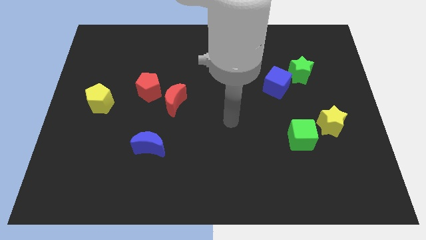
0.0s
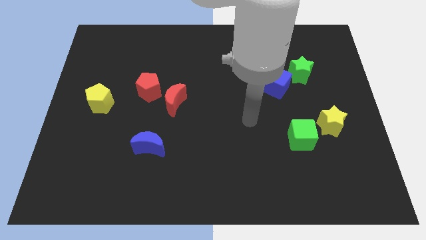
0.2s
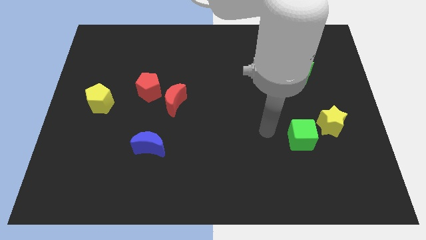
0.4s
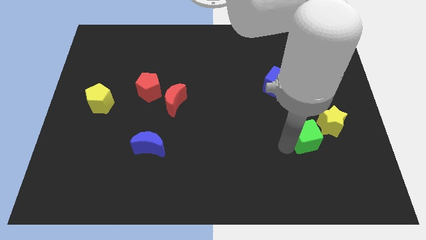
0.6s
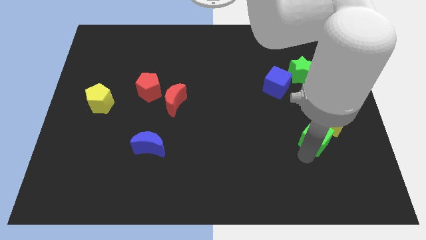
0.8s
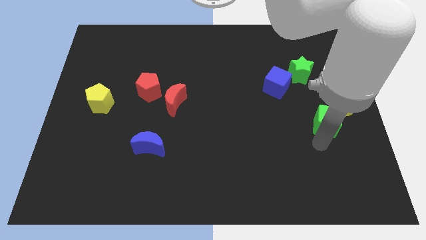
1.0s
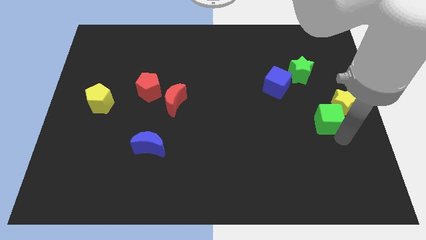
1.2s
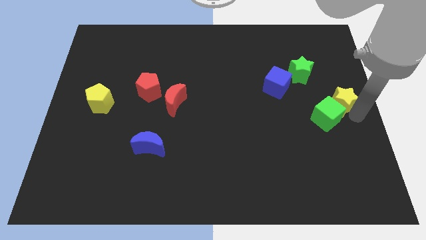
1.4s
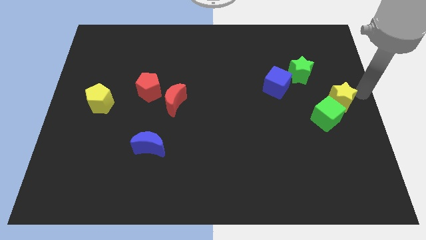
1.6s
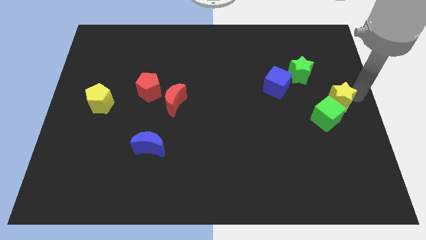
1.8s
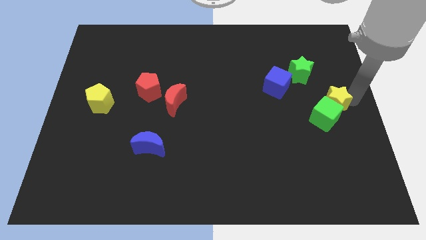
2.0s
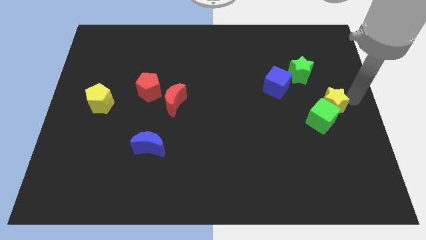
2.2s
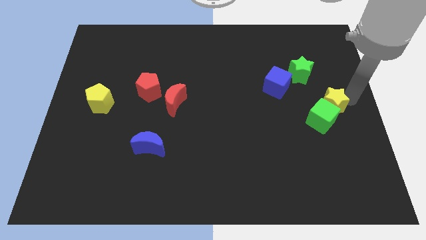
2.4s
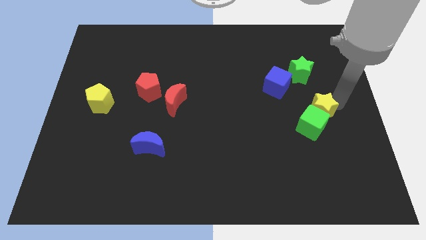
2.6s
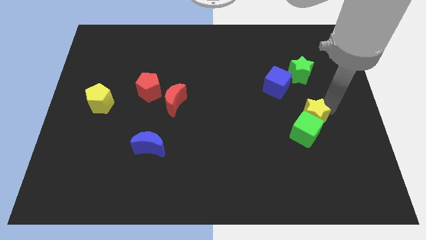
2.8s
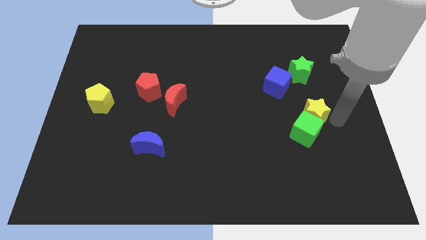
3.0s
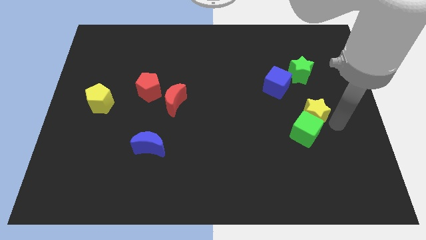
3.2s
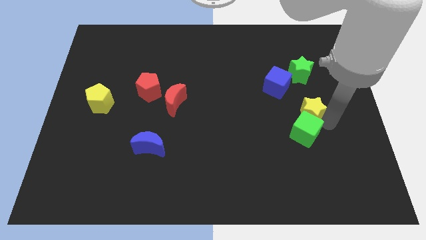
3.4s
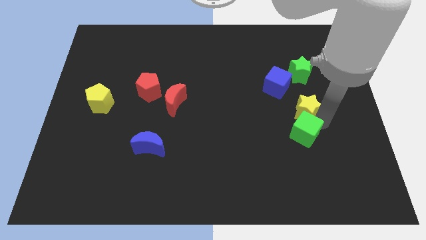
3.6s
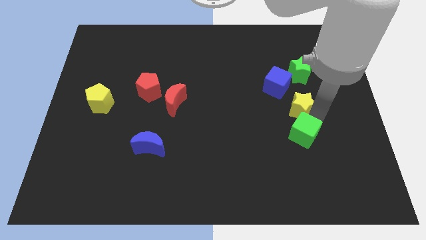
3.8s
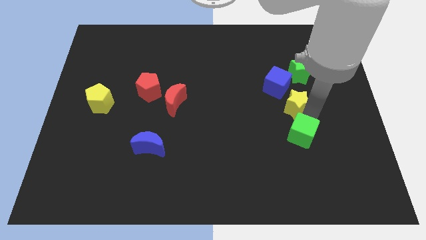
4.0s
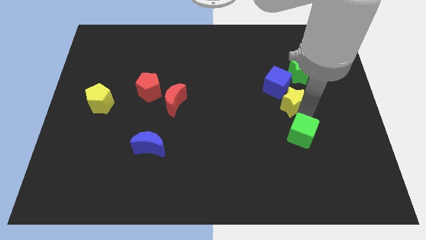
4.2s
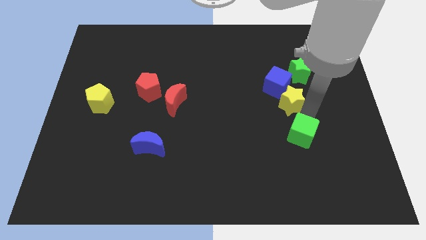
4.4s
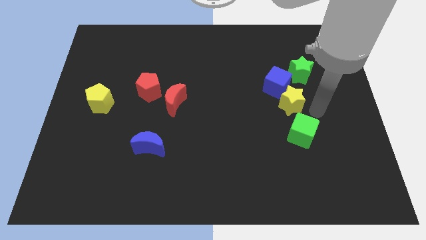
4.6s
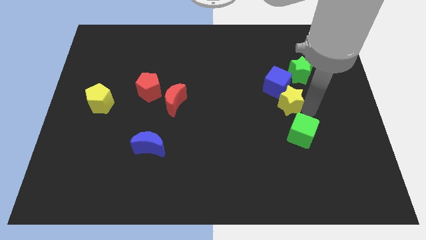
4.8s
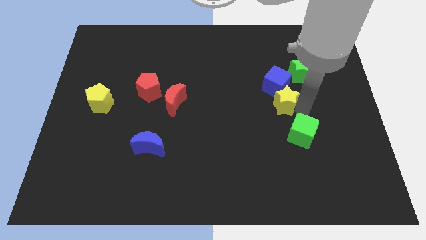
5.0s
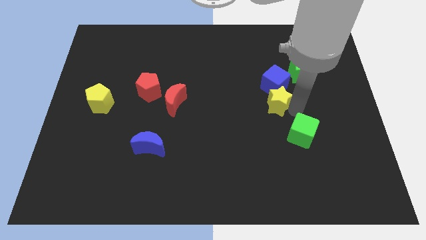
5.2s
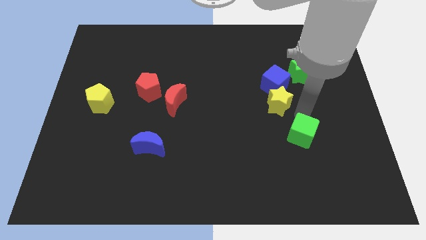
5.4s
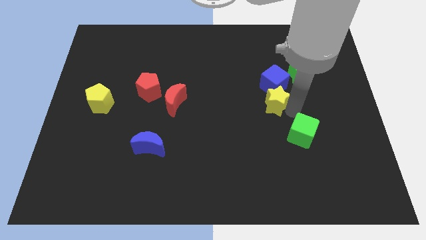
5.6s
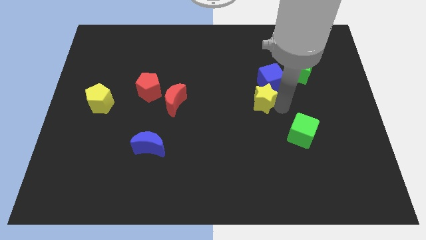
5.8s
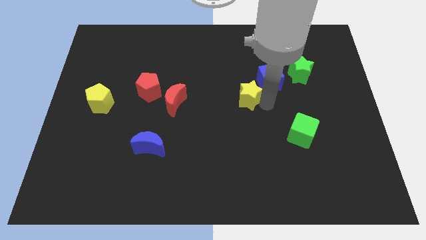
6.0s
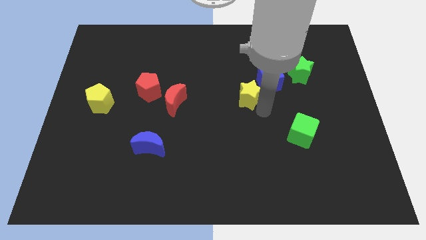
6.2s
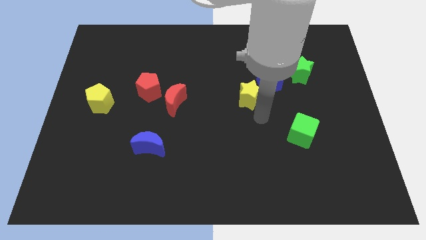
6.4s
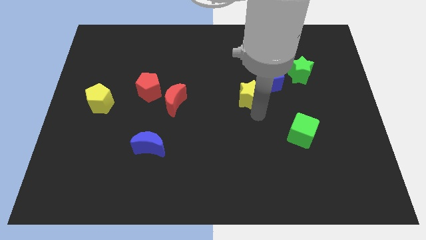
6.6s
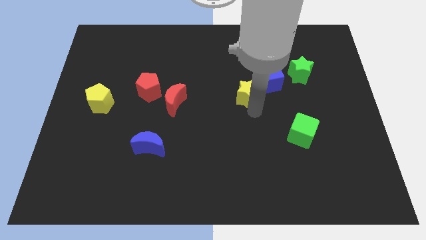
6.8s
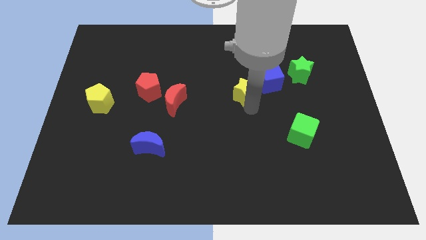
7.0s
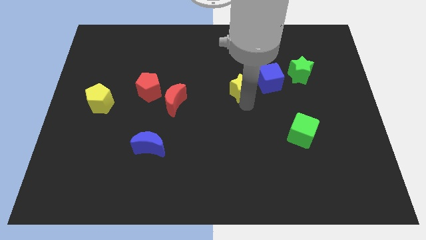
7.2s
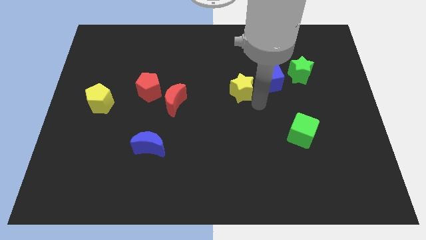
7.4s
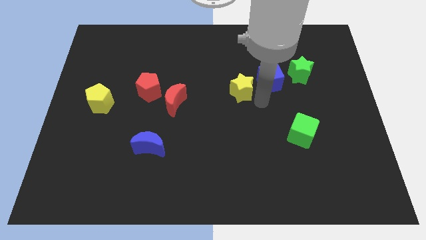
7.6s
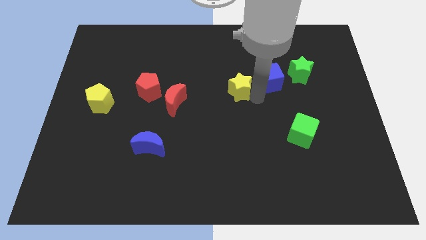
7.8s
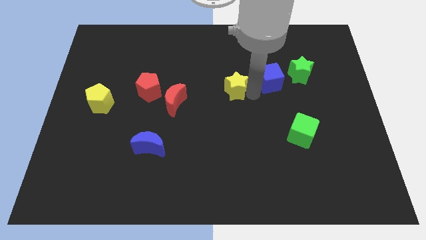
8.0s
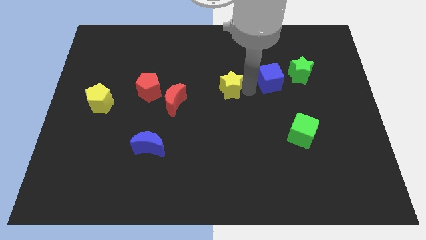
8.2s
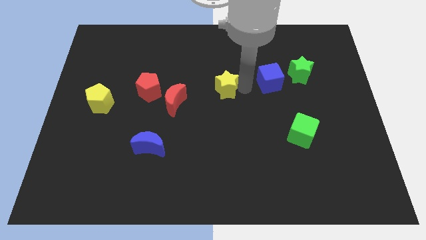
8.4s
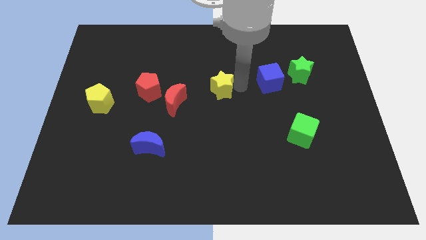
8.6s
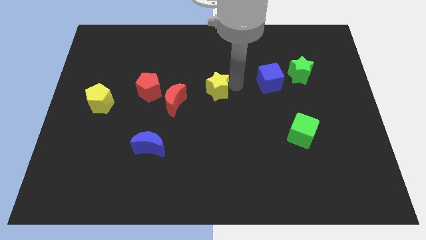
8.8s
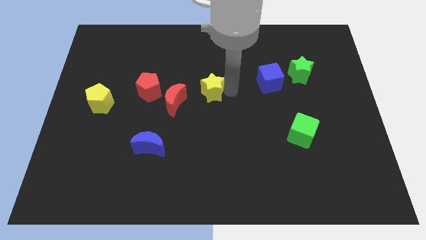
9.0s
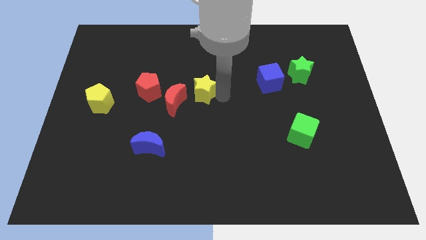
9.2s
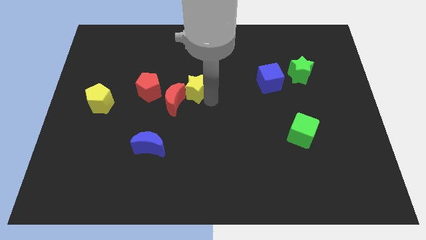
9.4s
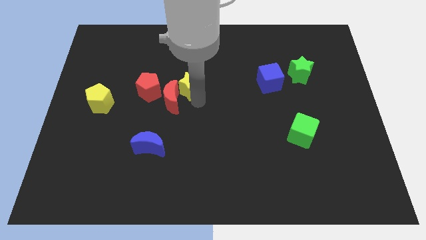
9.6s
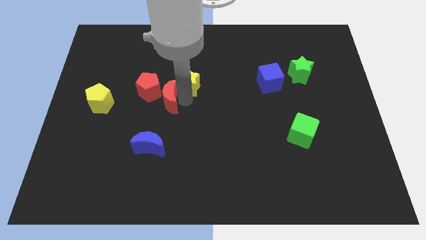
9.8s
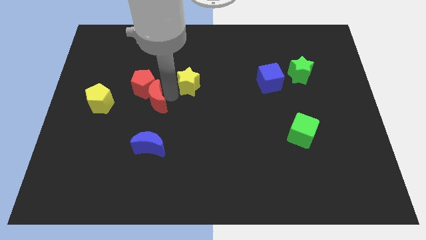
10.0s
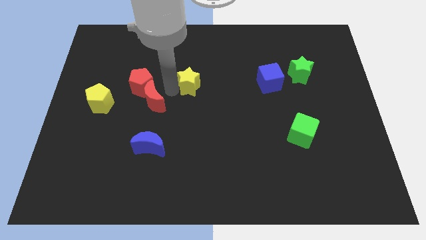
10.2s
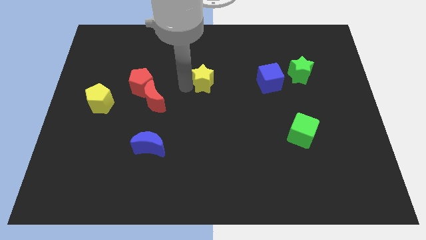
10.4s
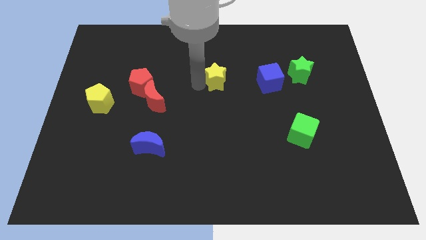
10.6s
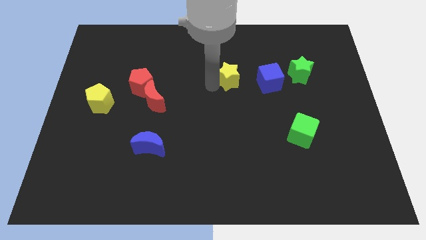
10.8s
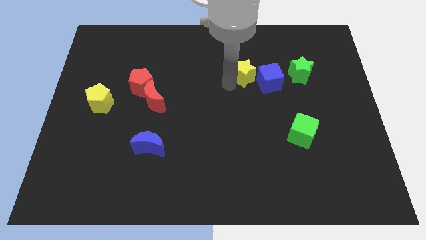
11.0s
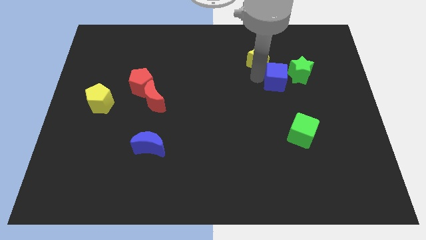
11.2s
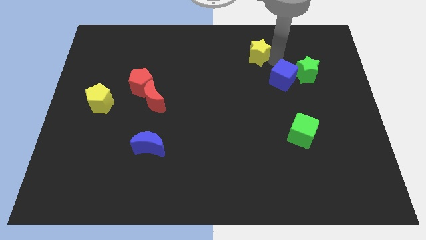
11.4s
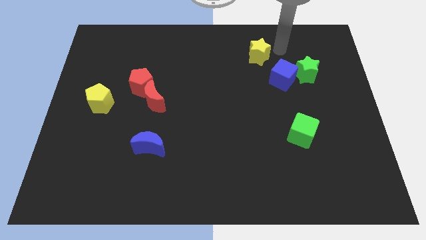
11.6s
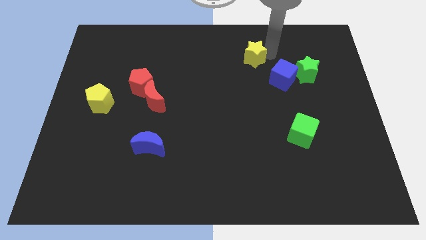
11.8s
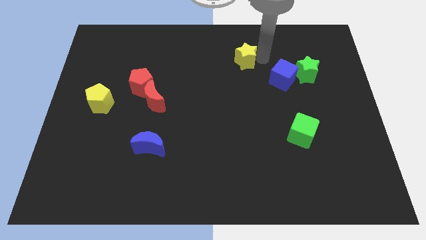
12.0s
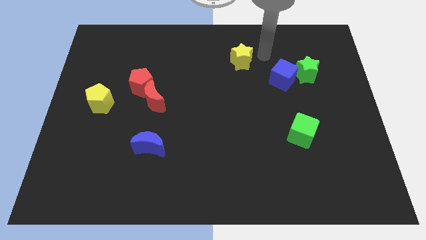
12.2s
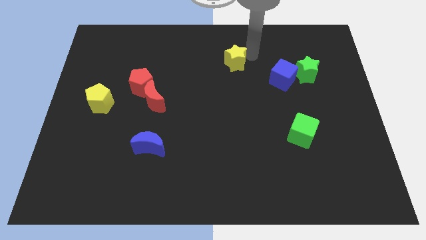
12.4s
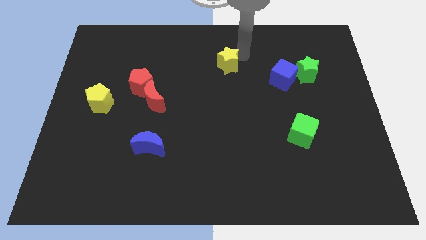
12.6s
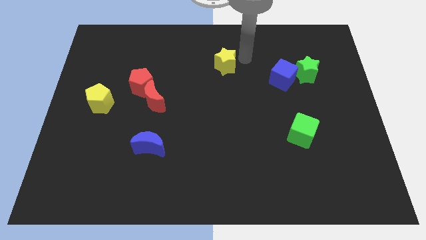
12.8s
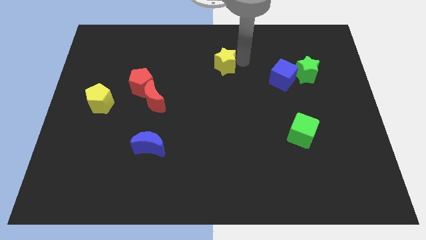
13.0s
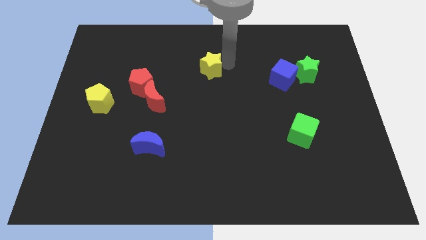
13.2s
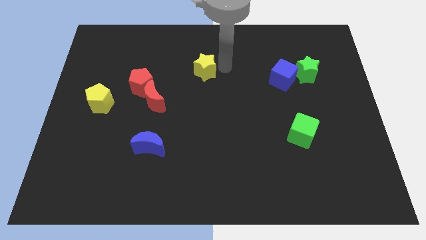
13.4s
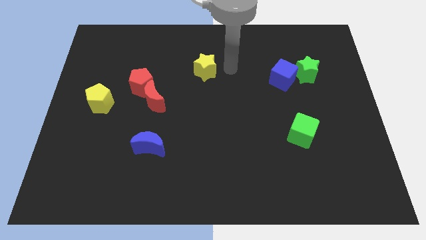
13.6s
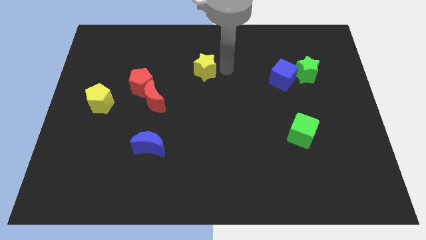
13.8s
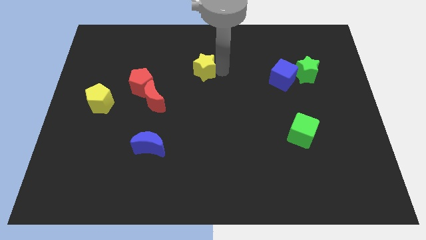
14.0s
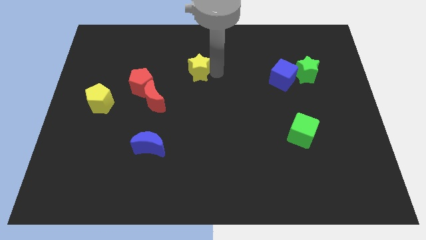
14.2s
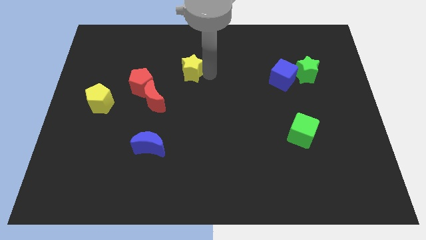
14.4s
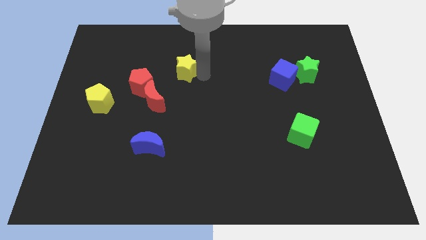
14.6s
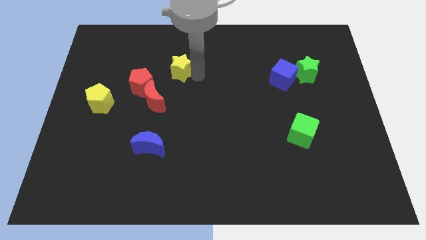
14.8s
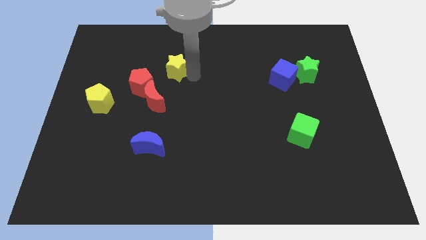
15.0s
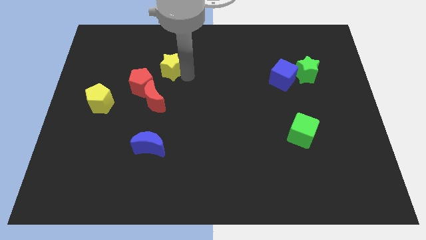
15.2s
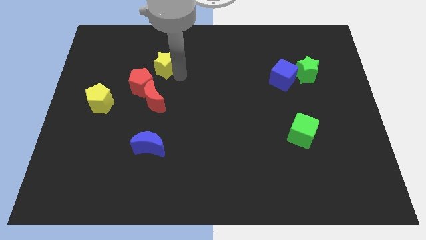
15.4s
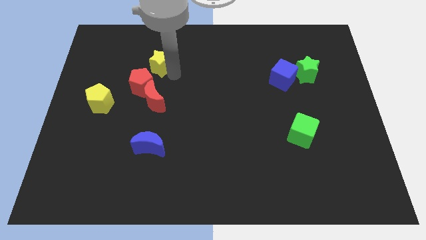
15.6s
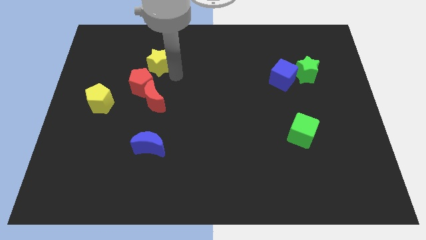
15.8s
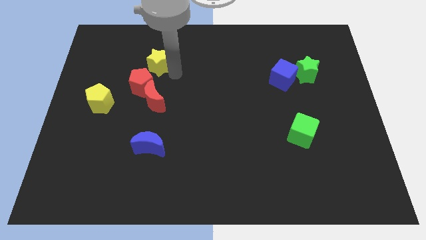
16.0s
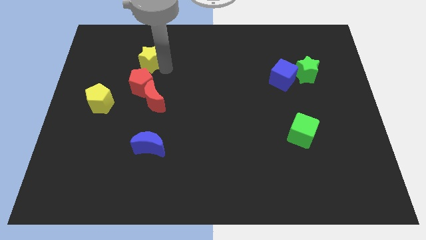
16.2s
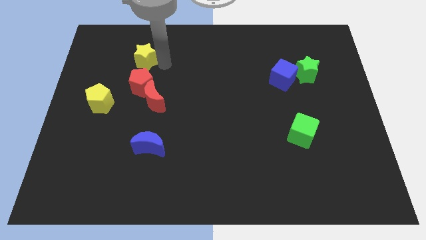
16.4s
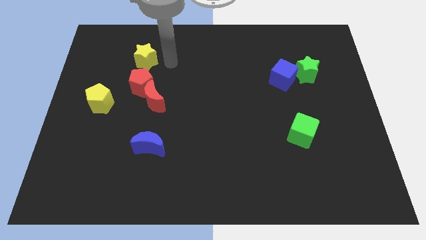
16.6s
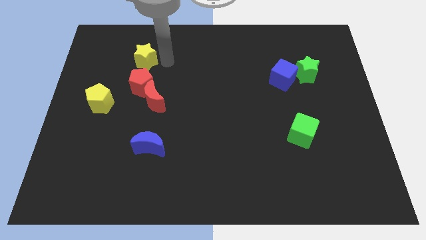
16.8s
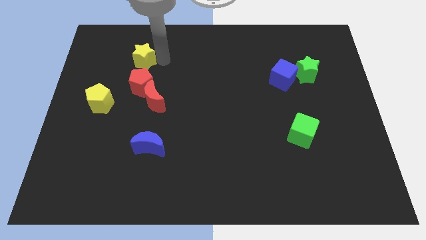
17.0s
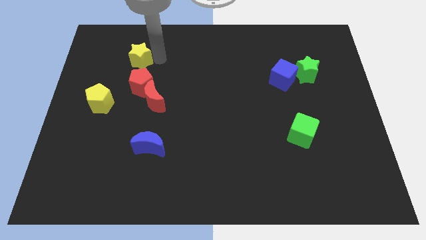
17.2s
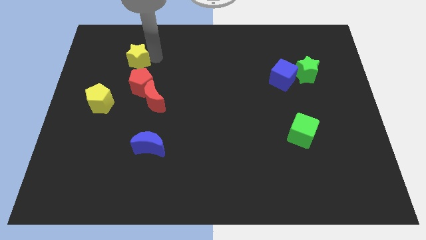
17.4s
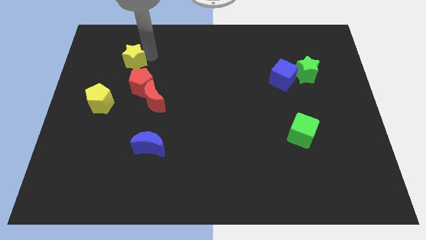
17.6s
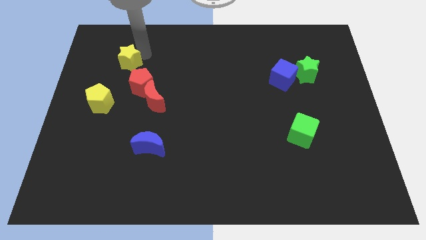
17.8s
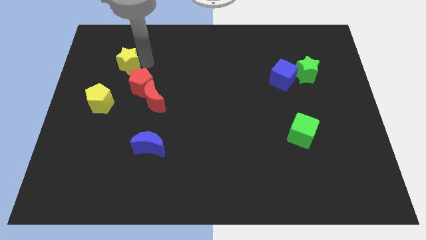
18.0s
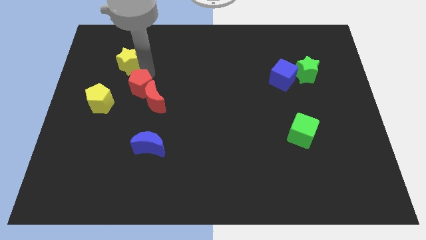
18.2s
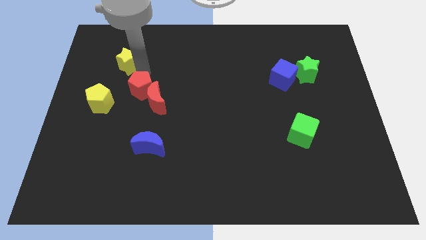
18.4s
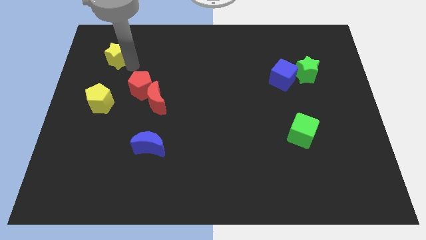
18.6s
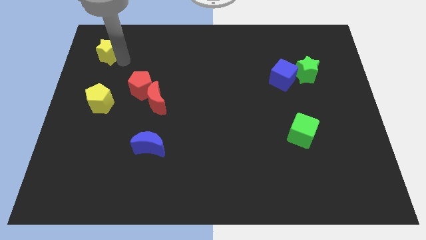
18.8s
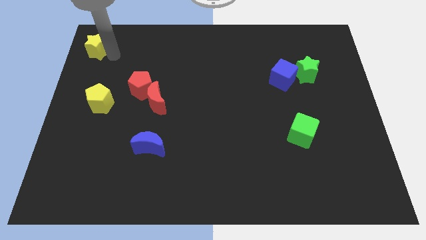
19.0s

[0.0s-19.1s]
push the yellow star to the top left
